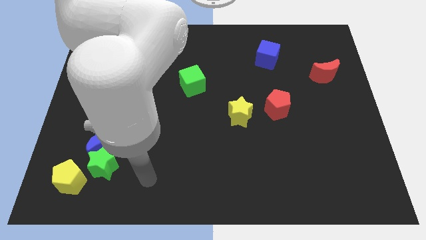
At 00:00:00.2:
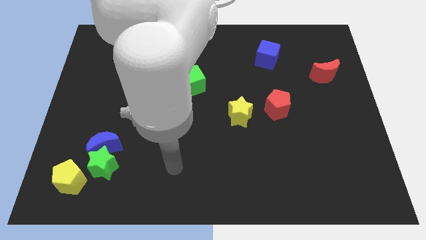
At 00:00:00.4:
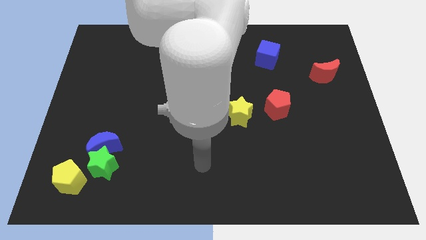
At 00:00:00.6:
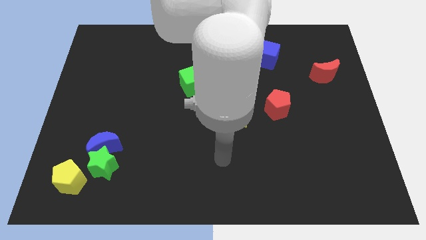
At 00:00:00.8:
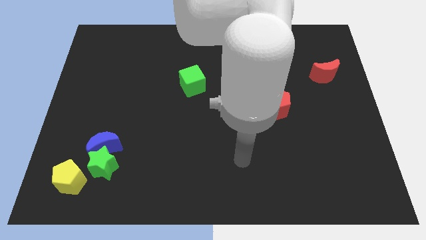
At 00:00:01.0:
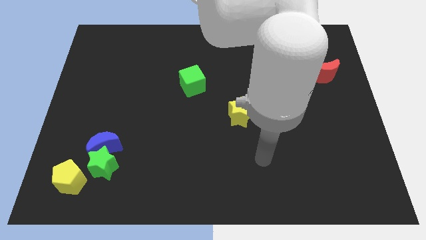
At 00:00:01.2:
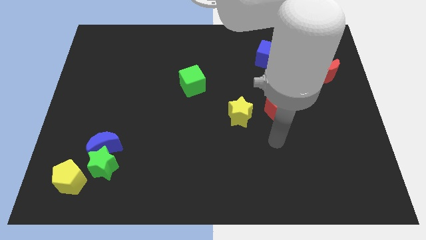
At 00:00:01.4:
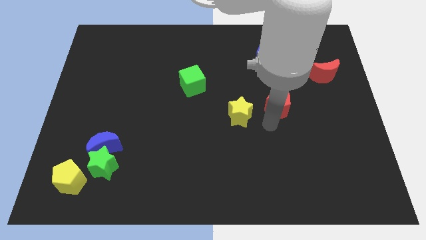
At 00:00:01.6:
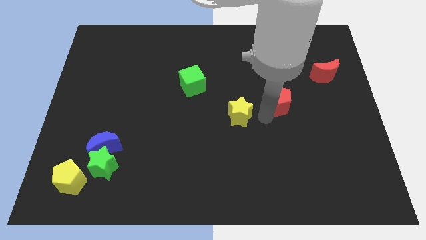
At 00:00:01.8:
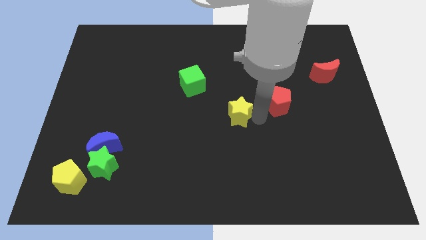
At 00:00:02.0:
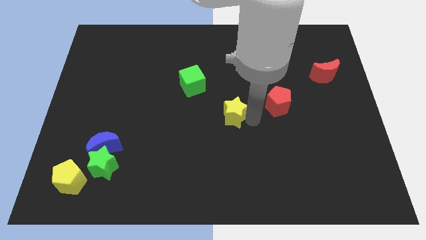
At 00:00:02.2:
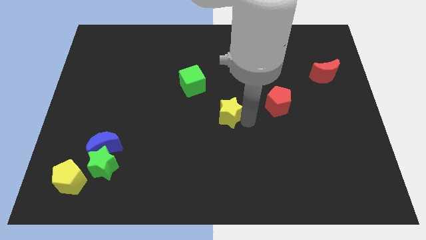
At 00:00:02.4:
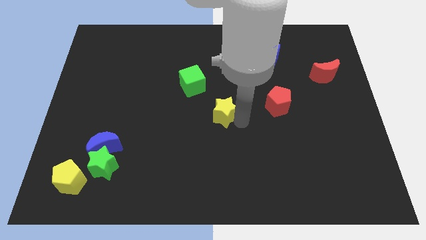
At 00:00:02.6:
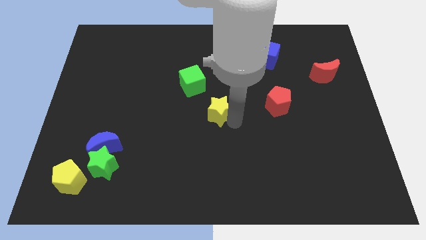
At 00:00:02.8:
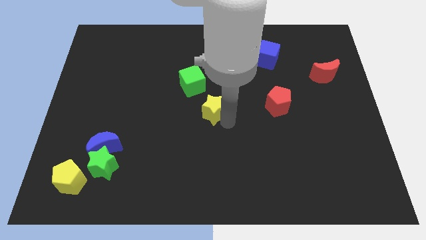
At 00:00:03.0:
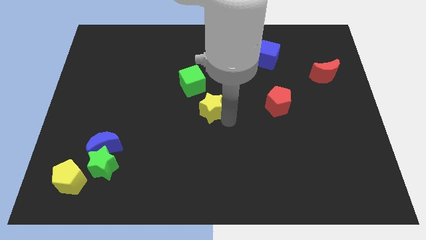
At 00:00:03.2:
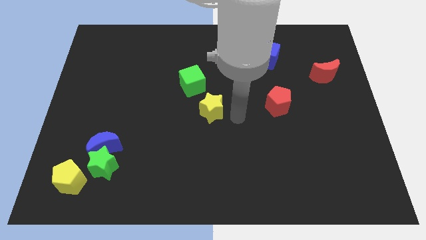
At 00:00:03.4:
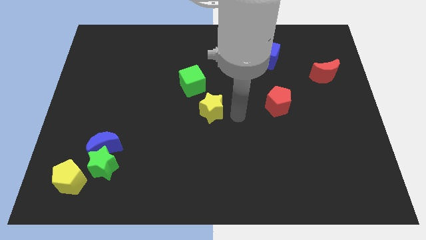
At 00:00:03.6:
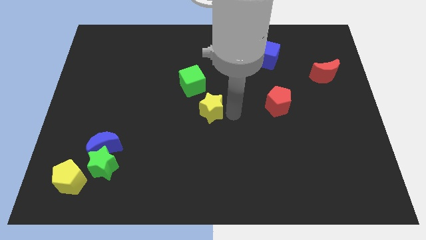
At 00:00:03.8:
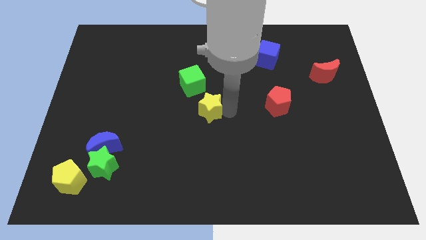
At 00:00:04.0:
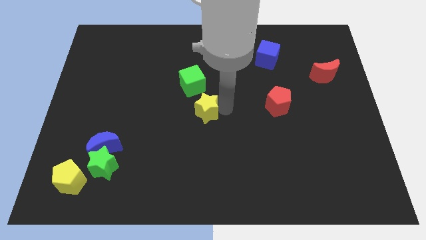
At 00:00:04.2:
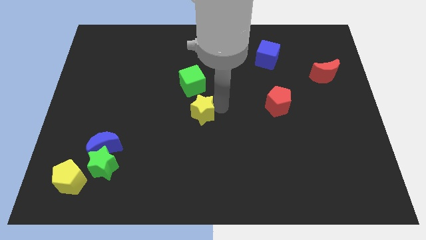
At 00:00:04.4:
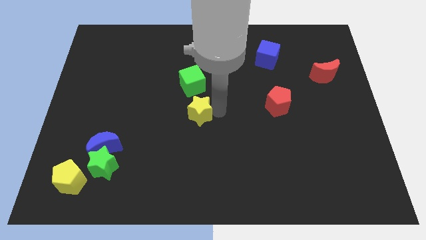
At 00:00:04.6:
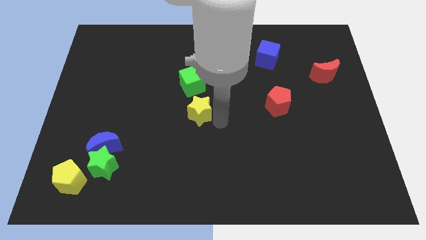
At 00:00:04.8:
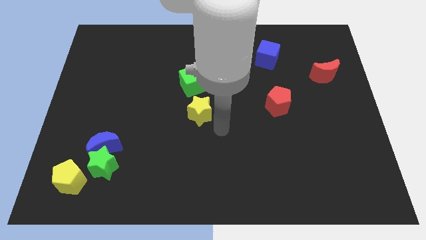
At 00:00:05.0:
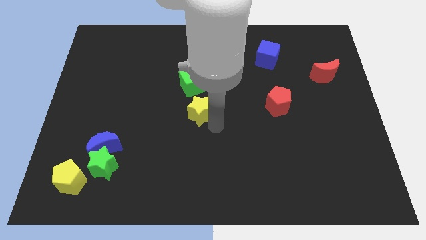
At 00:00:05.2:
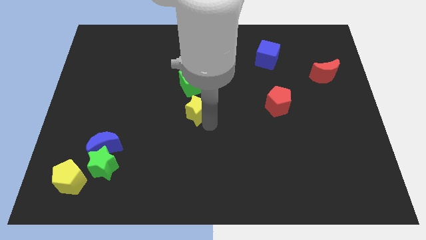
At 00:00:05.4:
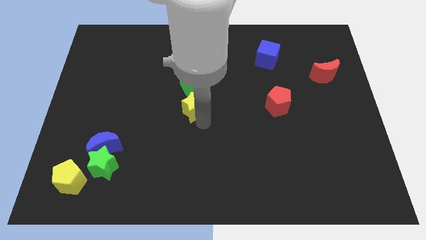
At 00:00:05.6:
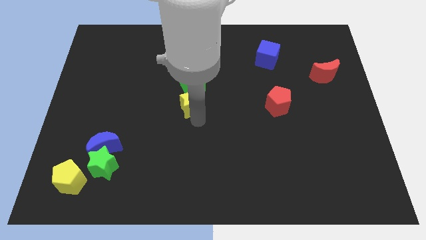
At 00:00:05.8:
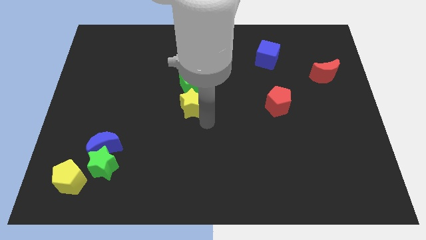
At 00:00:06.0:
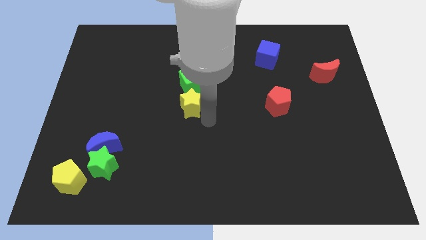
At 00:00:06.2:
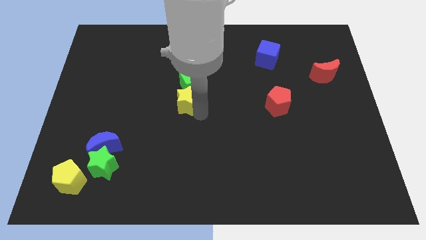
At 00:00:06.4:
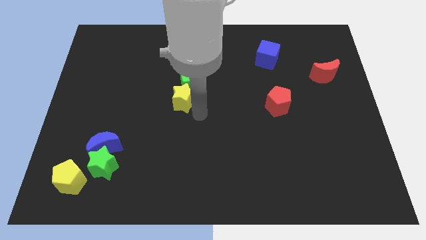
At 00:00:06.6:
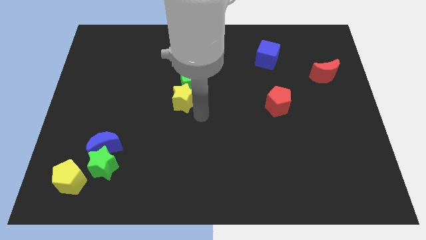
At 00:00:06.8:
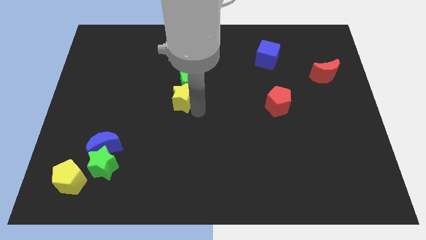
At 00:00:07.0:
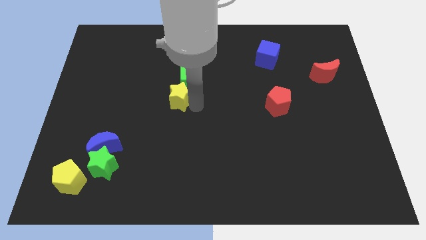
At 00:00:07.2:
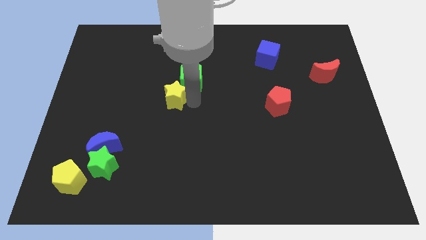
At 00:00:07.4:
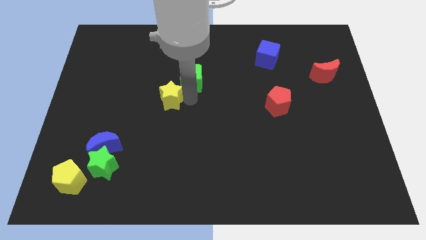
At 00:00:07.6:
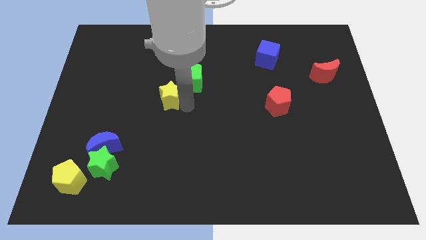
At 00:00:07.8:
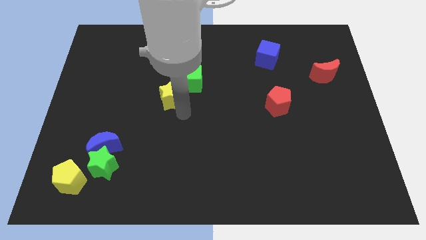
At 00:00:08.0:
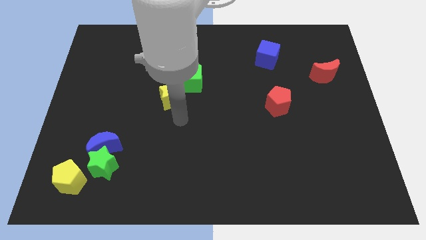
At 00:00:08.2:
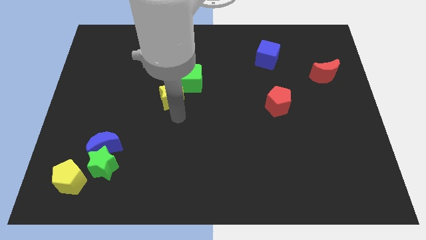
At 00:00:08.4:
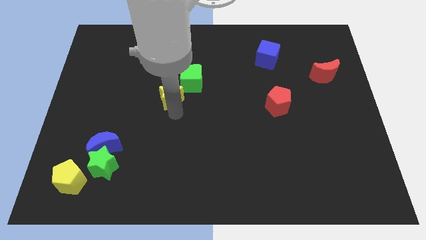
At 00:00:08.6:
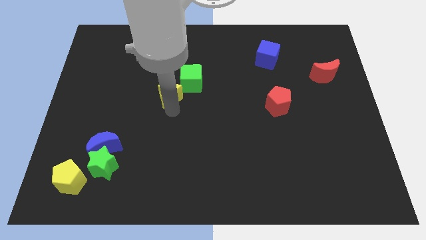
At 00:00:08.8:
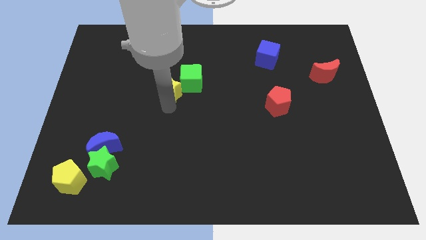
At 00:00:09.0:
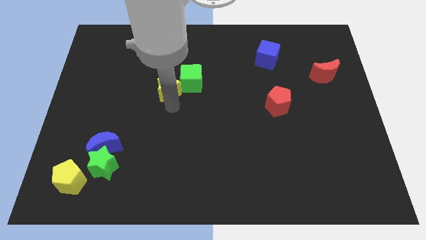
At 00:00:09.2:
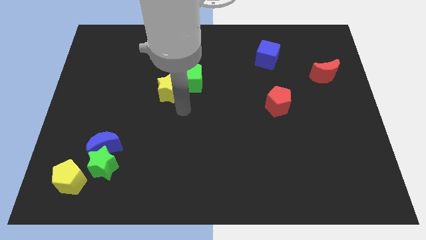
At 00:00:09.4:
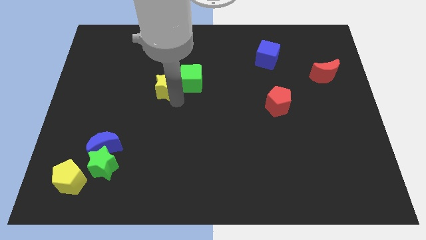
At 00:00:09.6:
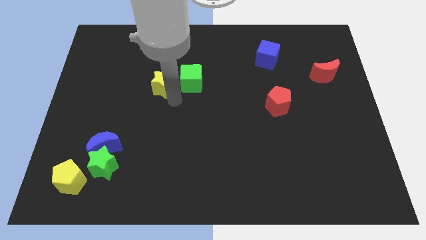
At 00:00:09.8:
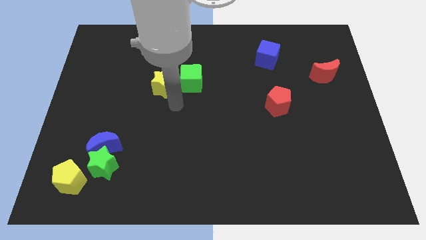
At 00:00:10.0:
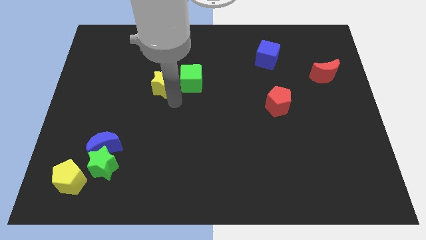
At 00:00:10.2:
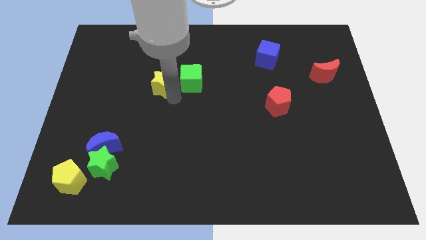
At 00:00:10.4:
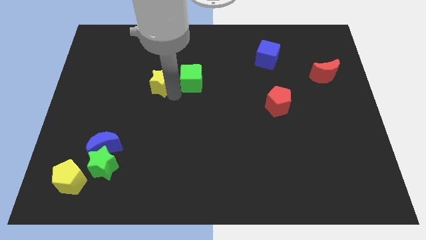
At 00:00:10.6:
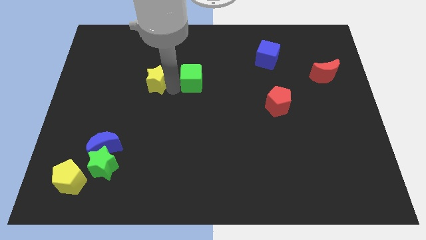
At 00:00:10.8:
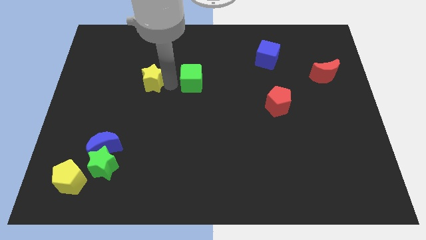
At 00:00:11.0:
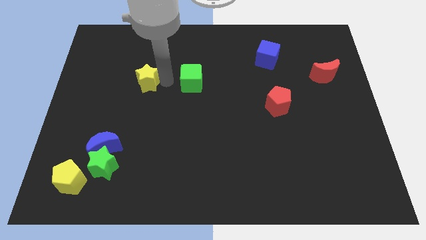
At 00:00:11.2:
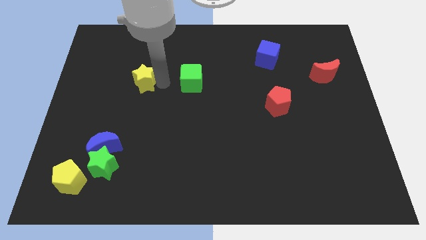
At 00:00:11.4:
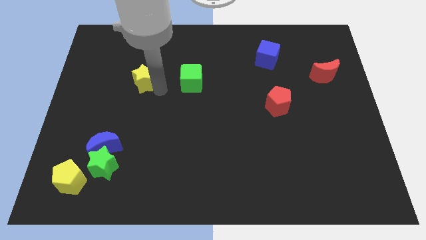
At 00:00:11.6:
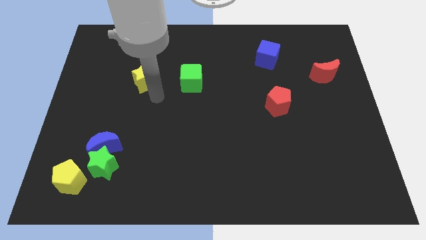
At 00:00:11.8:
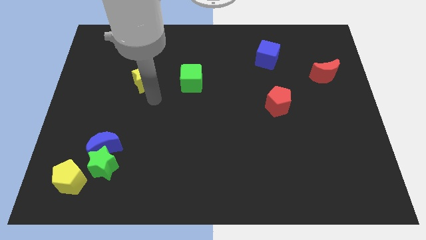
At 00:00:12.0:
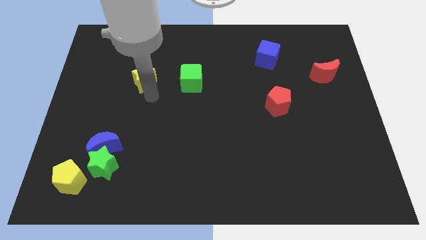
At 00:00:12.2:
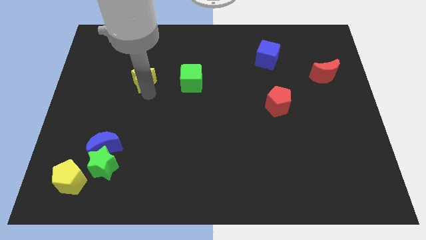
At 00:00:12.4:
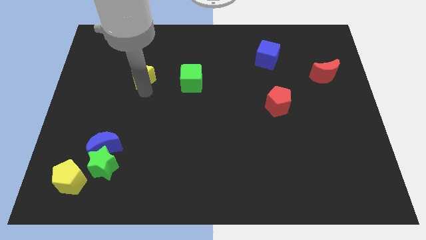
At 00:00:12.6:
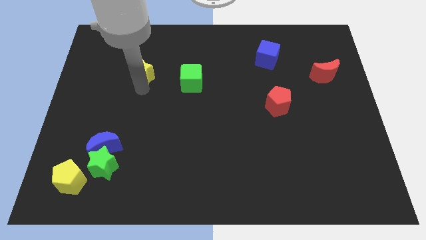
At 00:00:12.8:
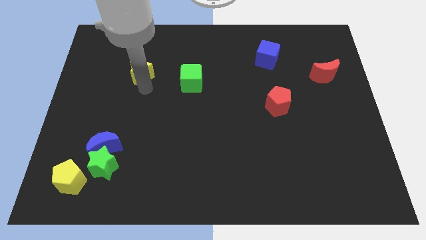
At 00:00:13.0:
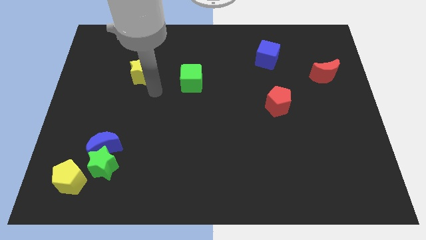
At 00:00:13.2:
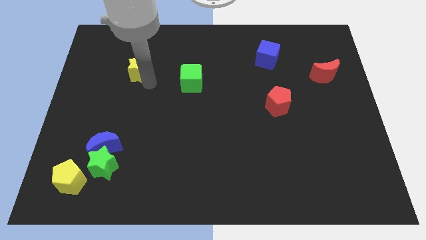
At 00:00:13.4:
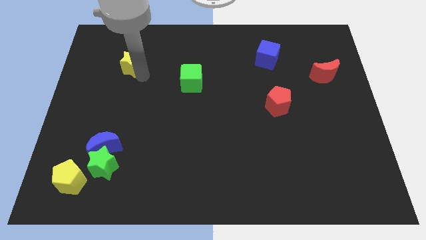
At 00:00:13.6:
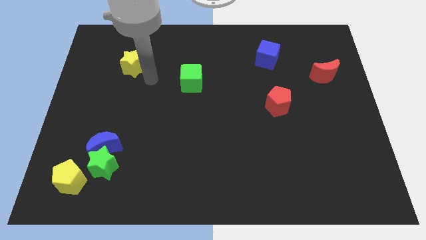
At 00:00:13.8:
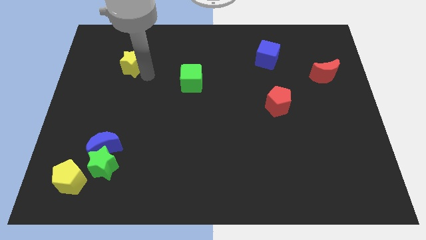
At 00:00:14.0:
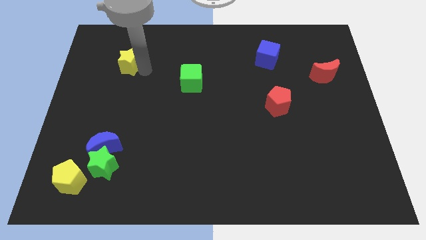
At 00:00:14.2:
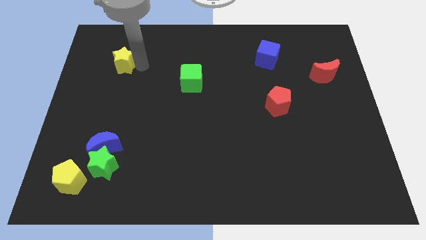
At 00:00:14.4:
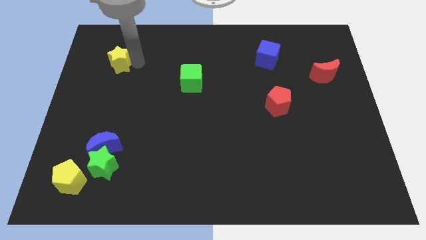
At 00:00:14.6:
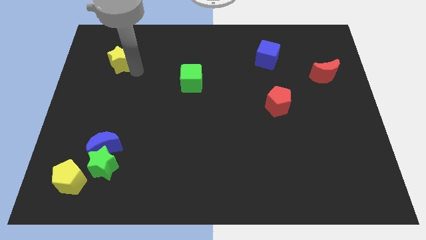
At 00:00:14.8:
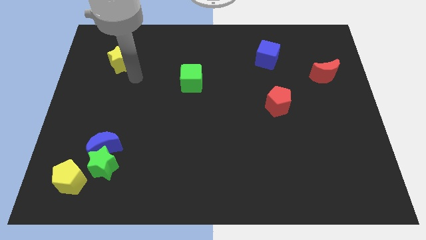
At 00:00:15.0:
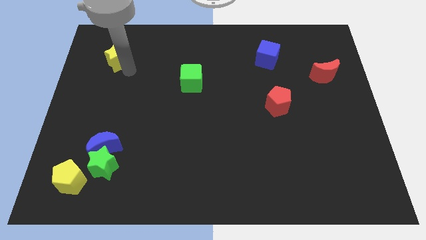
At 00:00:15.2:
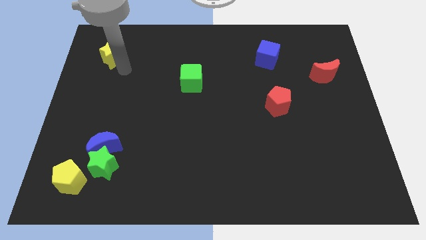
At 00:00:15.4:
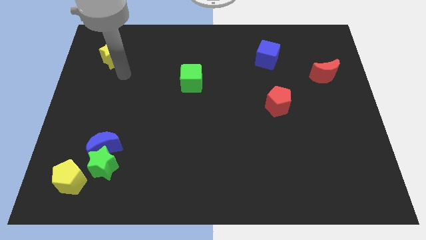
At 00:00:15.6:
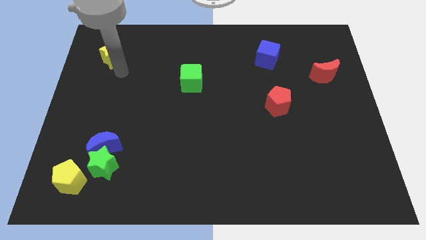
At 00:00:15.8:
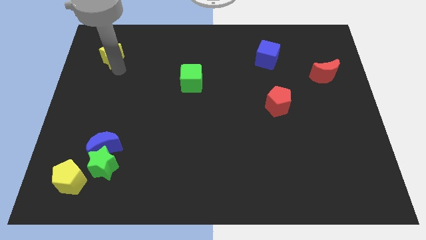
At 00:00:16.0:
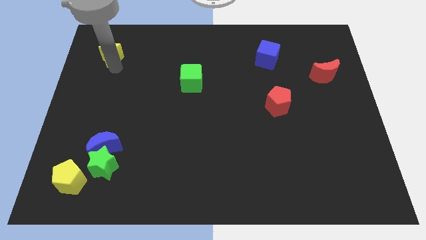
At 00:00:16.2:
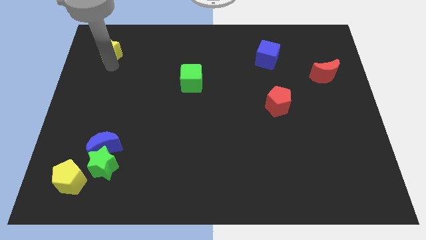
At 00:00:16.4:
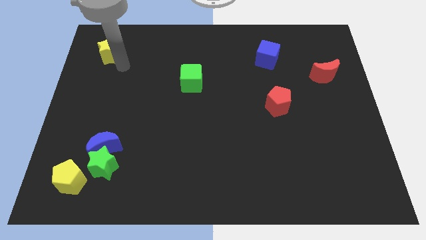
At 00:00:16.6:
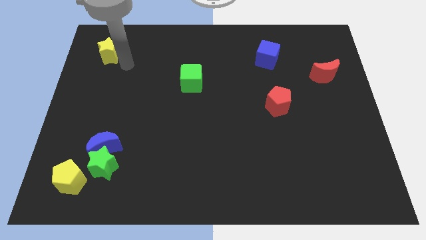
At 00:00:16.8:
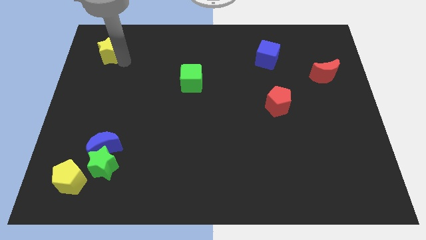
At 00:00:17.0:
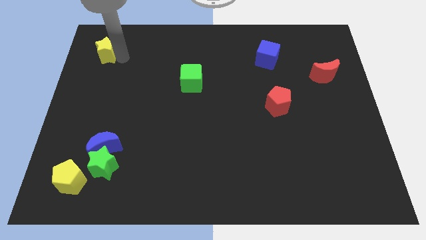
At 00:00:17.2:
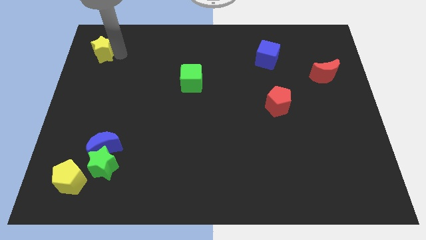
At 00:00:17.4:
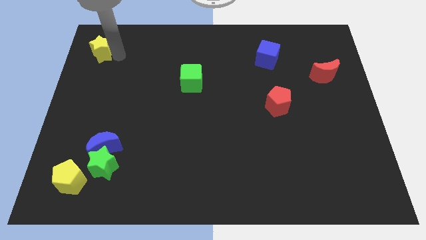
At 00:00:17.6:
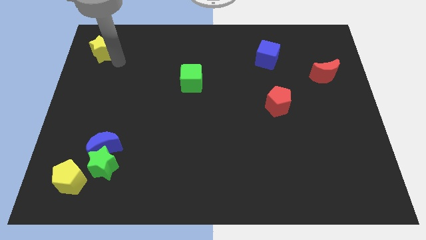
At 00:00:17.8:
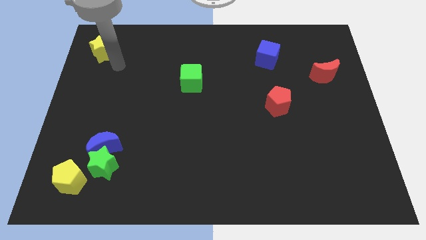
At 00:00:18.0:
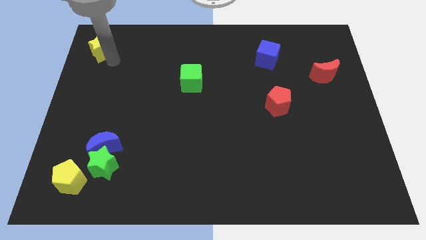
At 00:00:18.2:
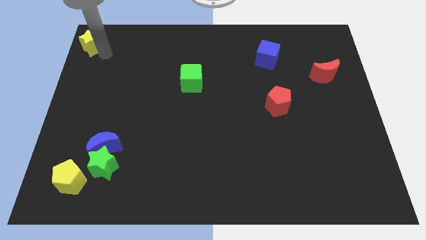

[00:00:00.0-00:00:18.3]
slide the yellow star to the top left
